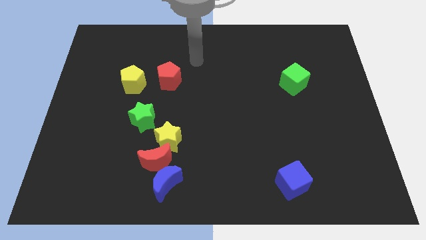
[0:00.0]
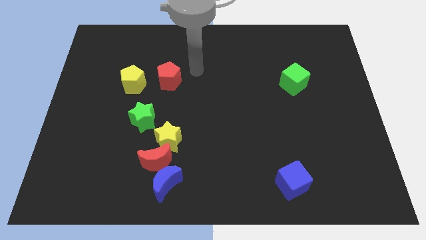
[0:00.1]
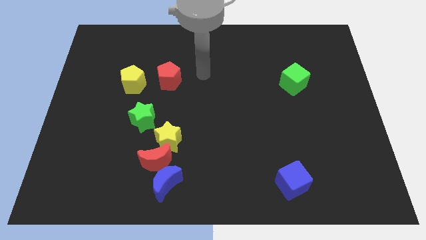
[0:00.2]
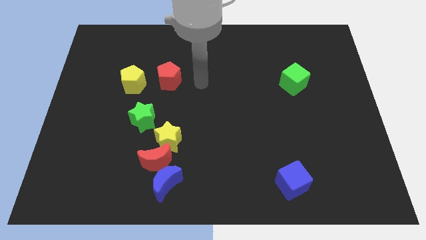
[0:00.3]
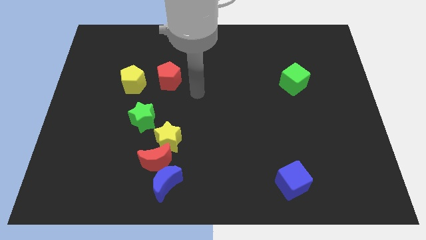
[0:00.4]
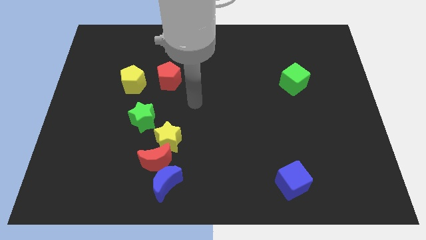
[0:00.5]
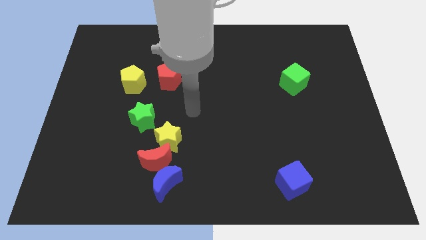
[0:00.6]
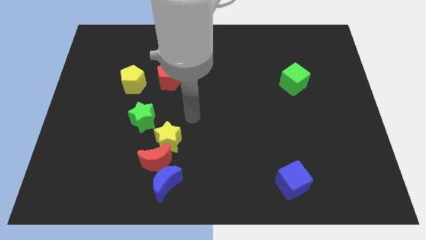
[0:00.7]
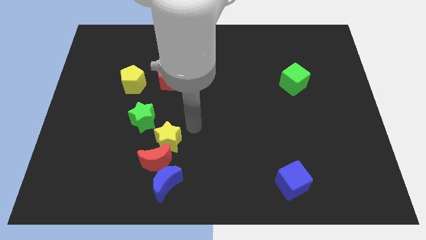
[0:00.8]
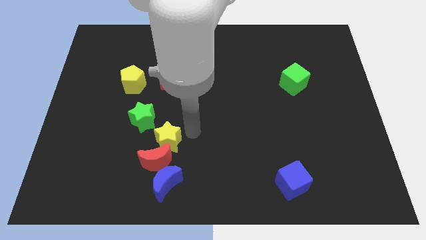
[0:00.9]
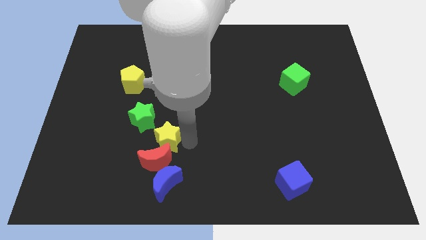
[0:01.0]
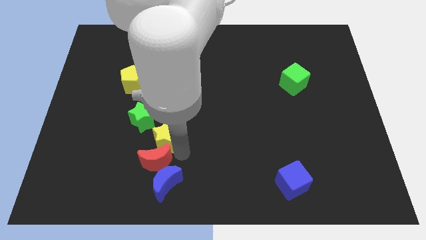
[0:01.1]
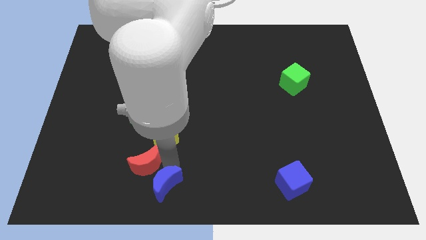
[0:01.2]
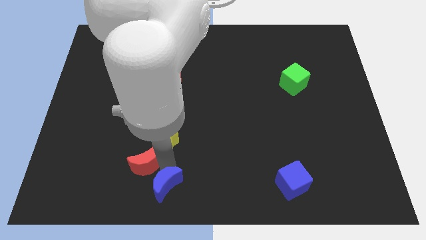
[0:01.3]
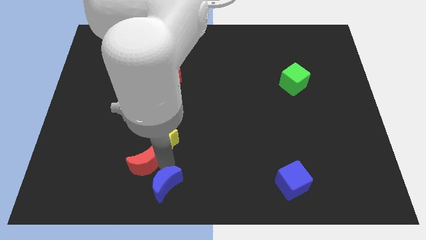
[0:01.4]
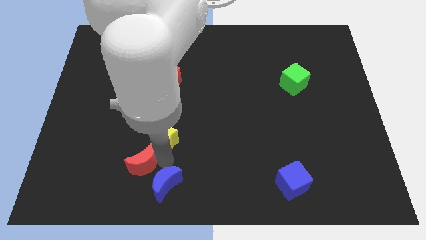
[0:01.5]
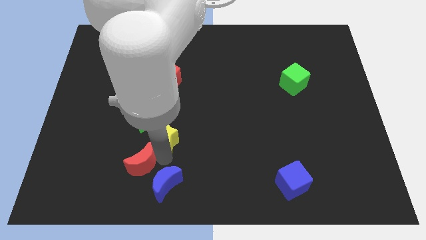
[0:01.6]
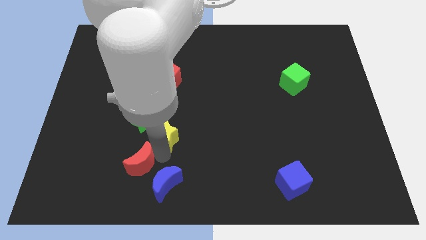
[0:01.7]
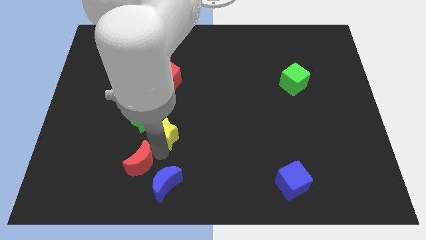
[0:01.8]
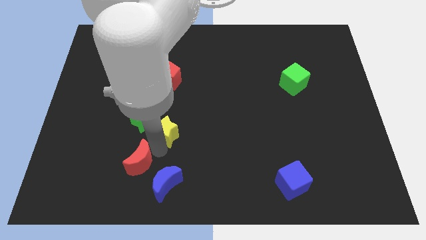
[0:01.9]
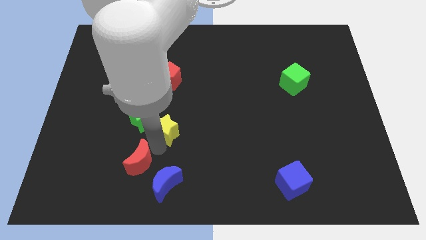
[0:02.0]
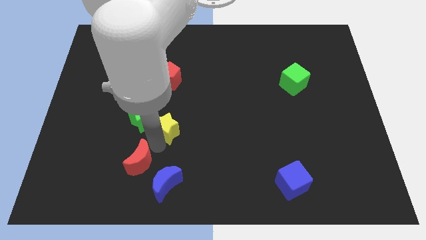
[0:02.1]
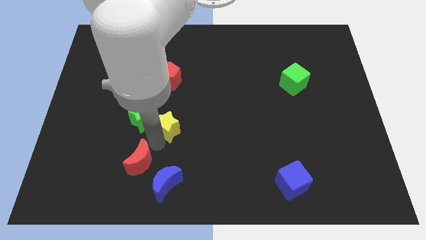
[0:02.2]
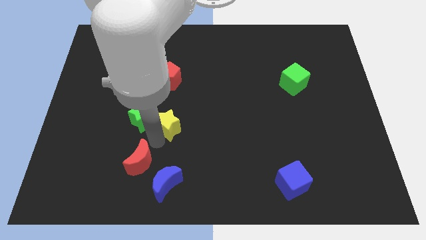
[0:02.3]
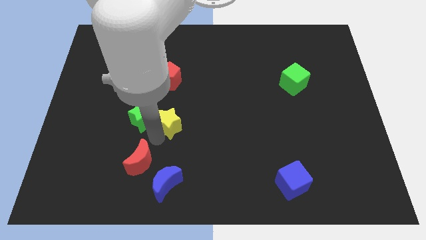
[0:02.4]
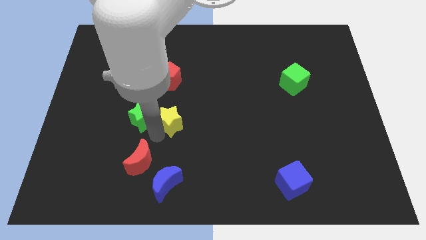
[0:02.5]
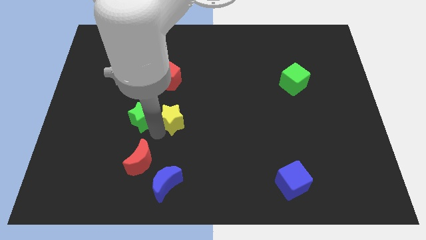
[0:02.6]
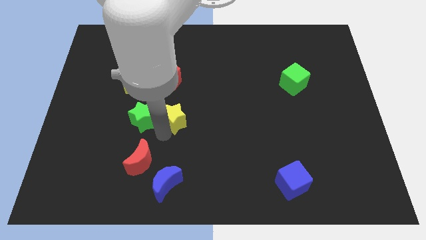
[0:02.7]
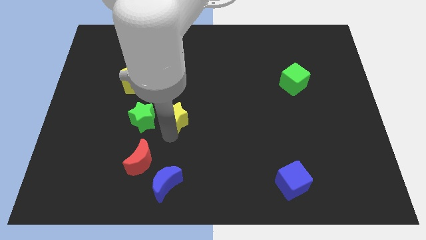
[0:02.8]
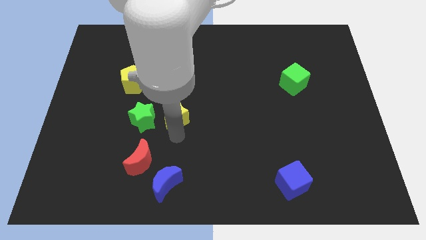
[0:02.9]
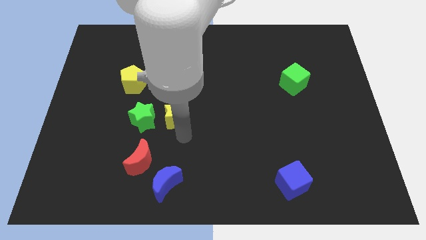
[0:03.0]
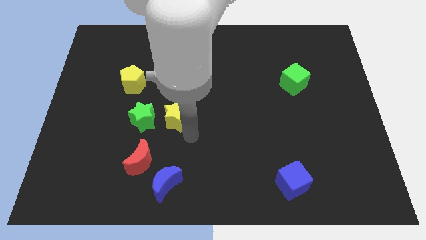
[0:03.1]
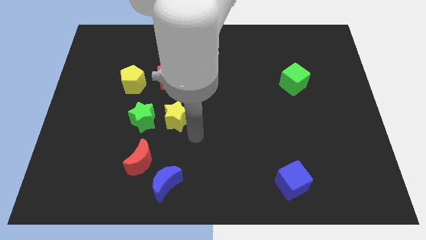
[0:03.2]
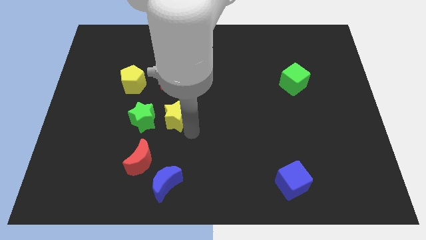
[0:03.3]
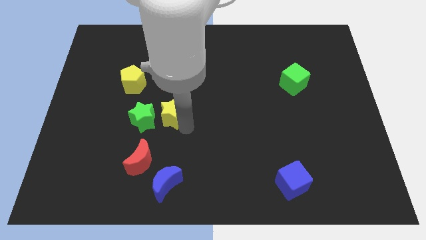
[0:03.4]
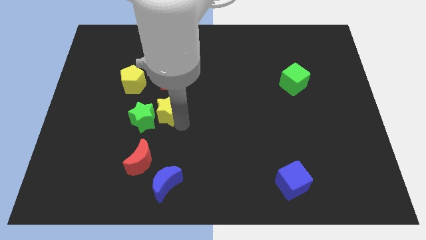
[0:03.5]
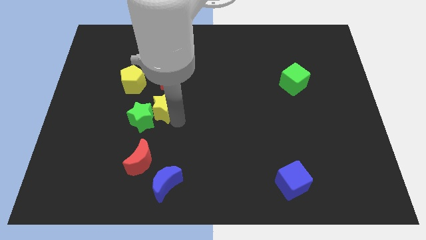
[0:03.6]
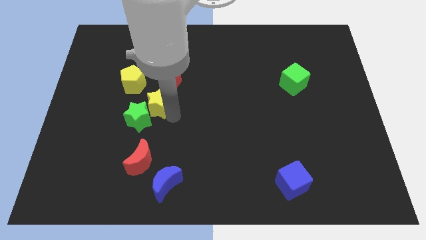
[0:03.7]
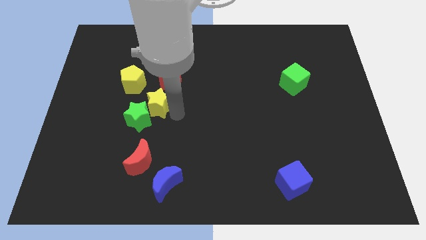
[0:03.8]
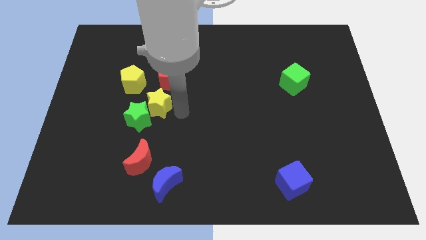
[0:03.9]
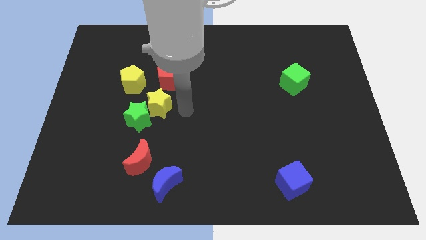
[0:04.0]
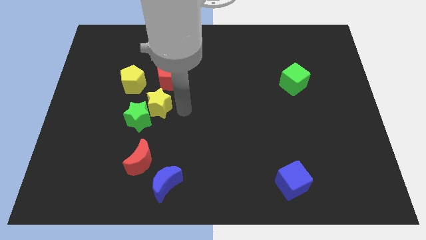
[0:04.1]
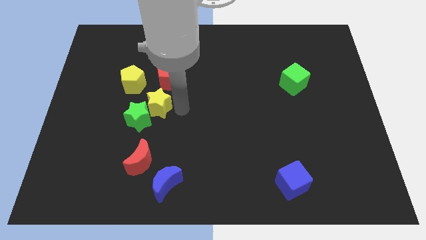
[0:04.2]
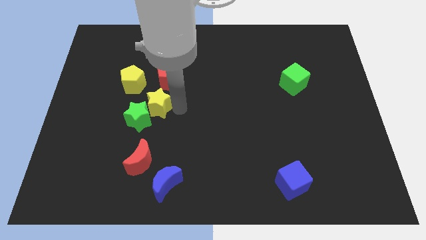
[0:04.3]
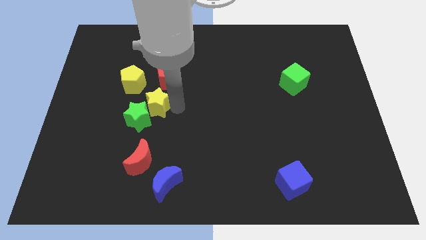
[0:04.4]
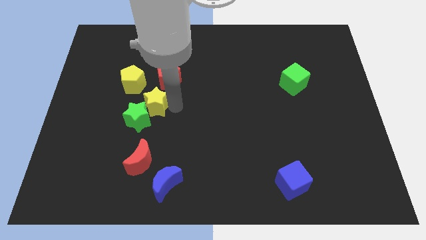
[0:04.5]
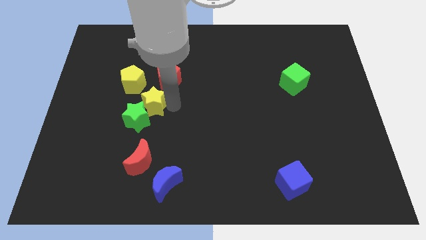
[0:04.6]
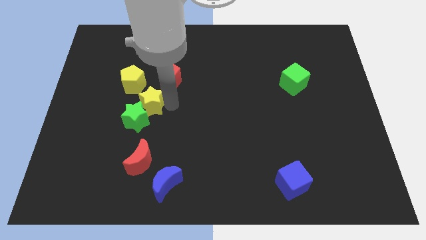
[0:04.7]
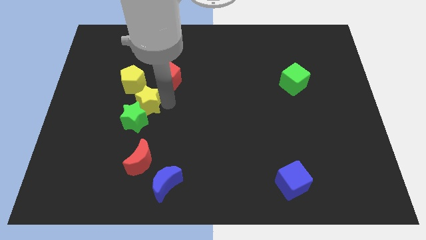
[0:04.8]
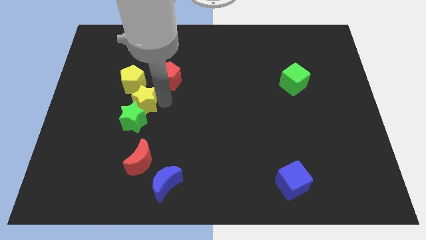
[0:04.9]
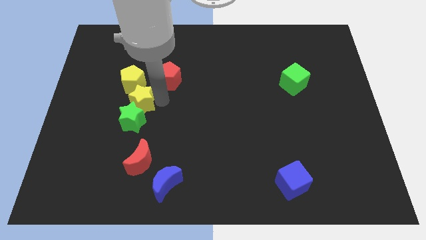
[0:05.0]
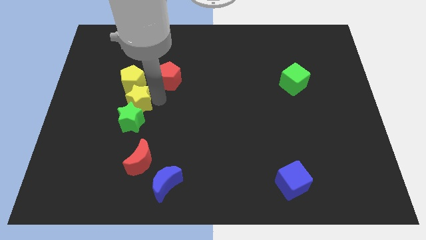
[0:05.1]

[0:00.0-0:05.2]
put the yellow star to the top left of the green star

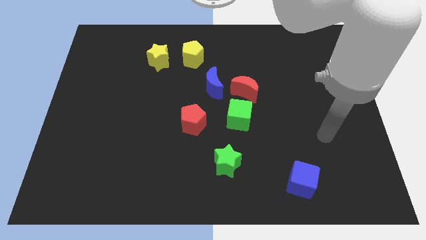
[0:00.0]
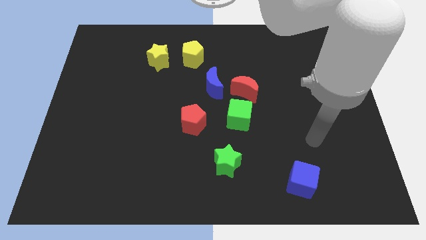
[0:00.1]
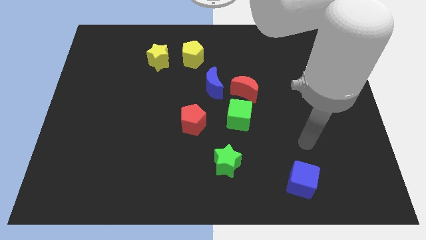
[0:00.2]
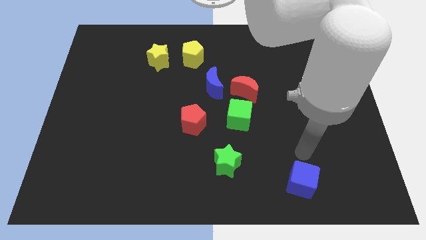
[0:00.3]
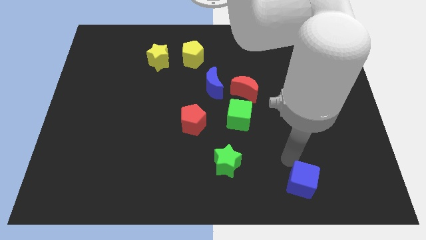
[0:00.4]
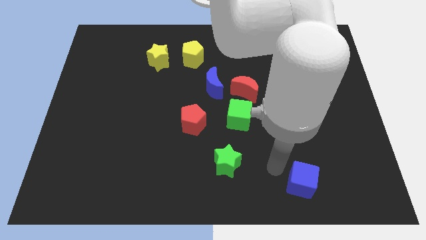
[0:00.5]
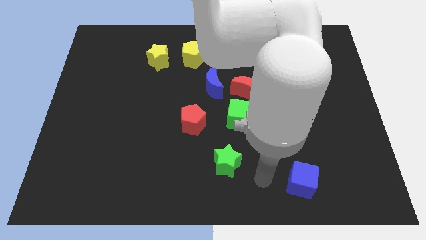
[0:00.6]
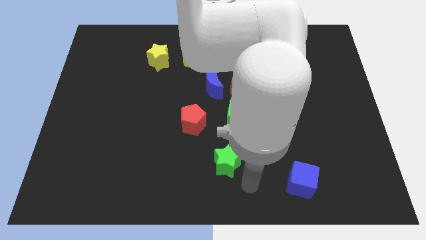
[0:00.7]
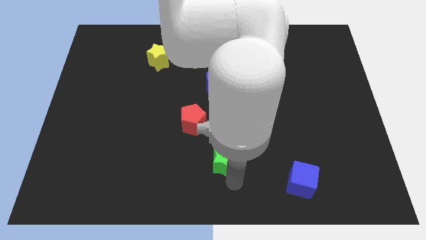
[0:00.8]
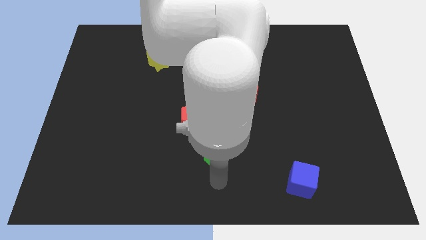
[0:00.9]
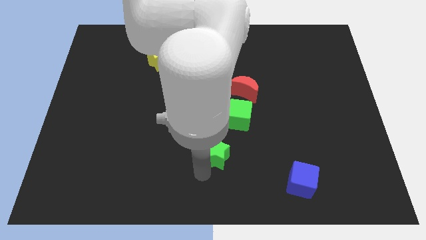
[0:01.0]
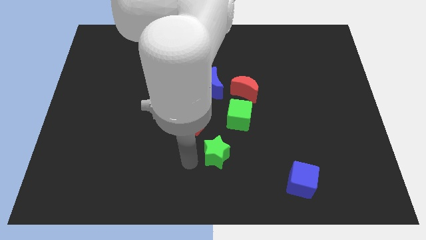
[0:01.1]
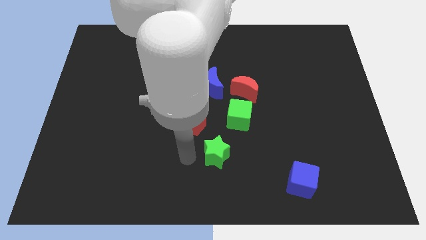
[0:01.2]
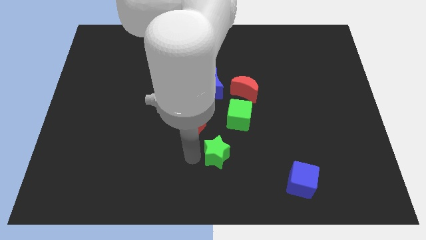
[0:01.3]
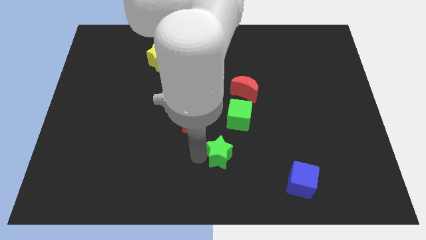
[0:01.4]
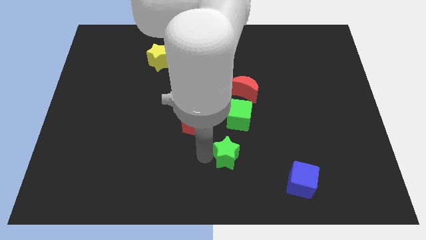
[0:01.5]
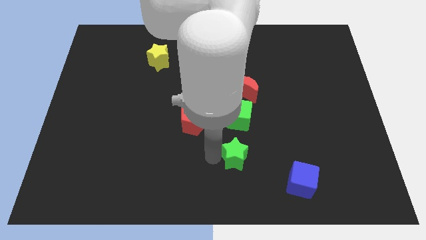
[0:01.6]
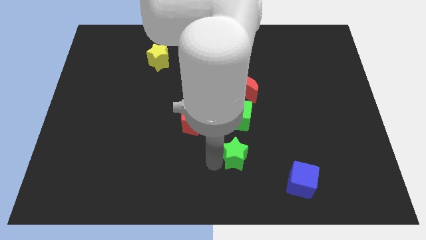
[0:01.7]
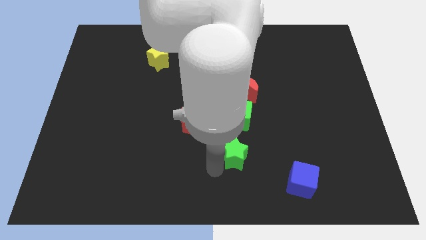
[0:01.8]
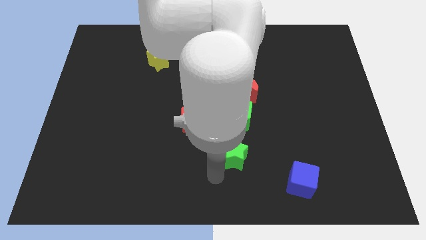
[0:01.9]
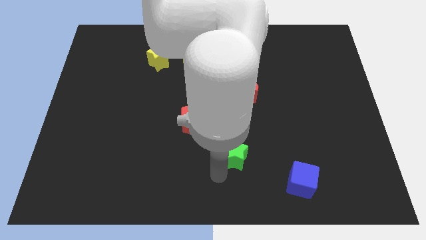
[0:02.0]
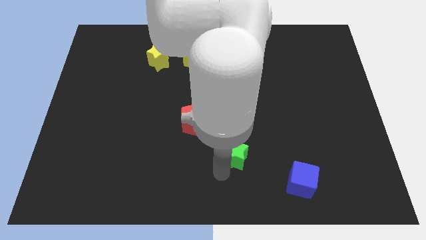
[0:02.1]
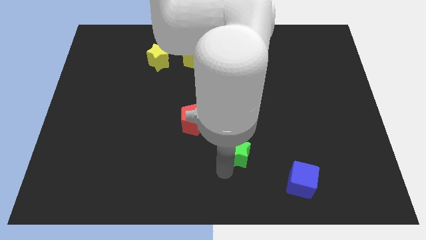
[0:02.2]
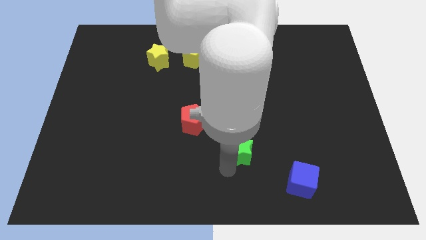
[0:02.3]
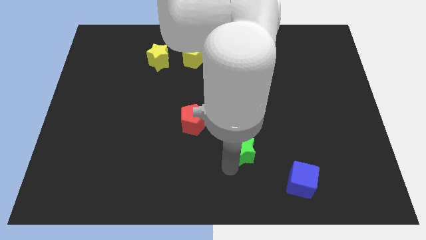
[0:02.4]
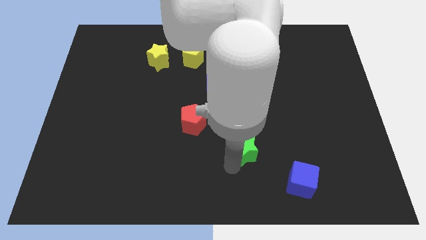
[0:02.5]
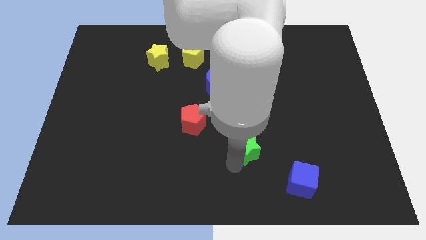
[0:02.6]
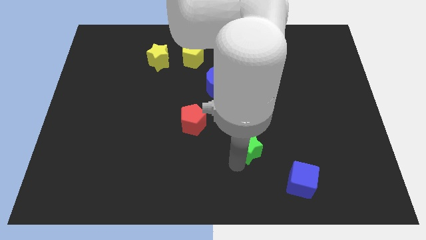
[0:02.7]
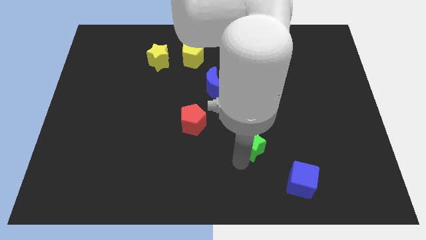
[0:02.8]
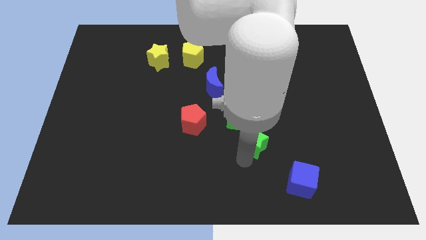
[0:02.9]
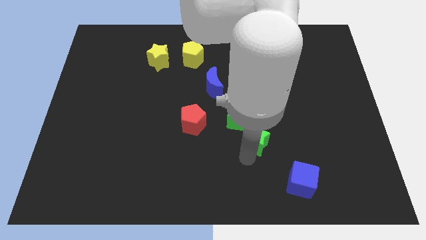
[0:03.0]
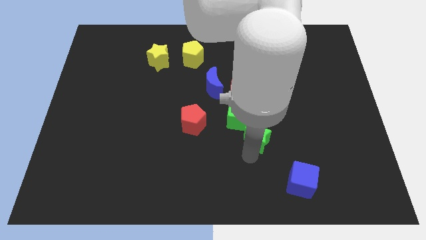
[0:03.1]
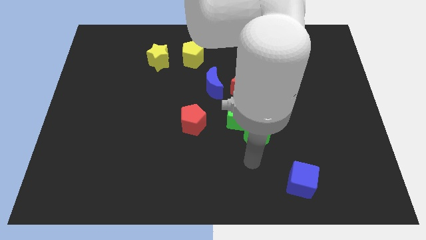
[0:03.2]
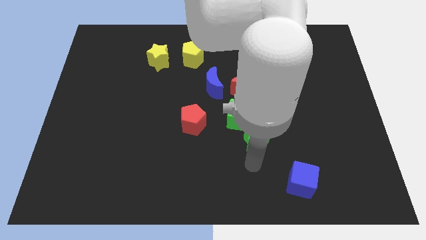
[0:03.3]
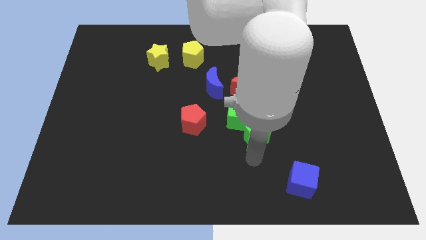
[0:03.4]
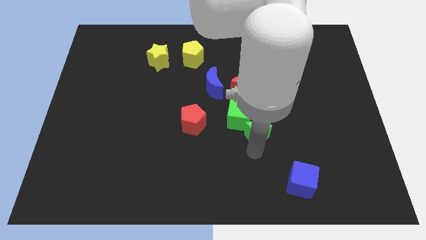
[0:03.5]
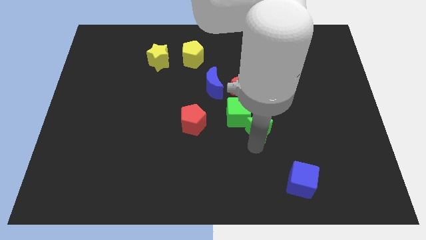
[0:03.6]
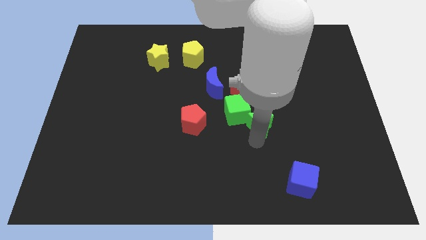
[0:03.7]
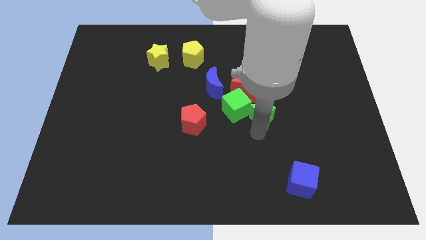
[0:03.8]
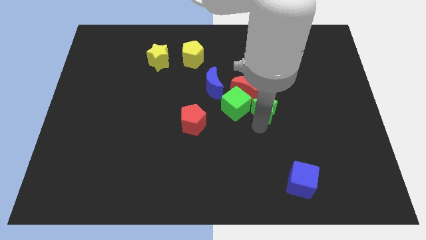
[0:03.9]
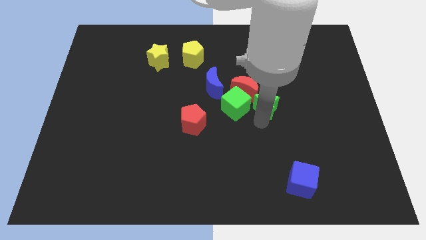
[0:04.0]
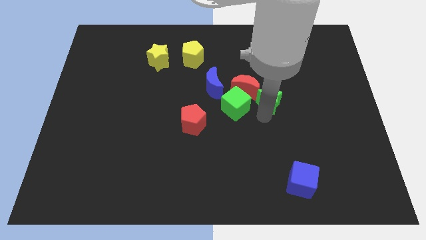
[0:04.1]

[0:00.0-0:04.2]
put the green star to the right of the blue moon
